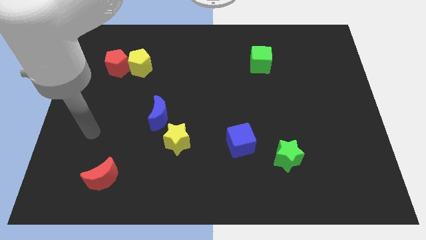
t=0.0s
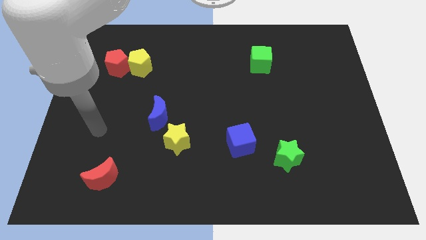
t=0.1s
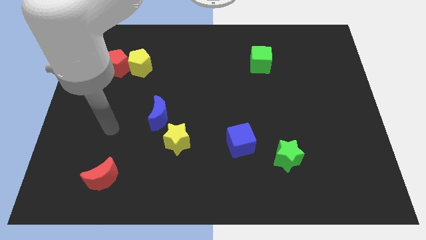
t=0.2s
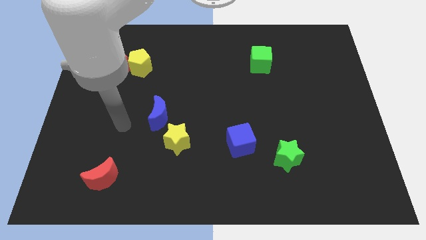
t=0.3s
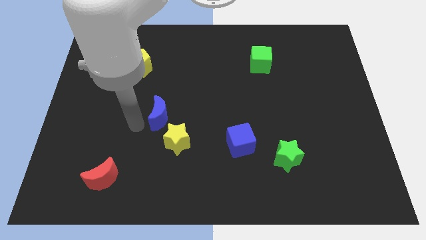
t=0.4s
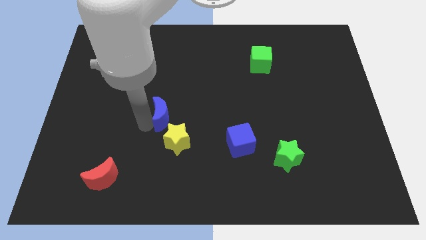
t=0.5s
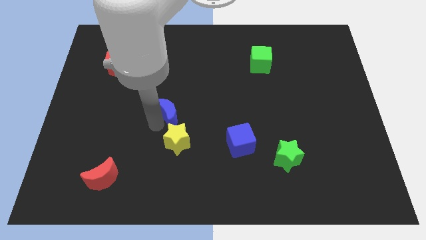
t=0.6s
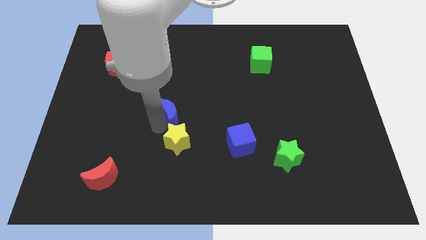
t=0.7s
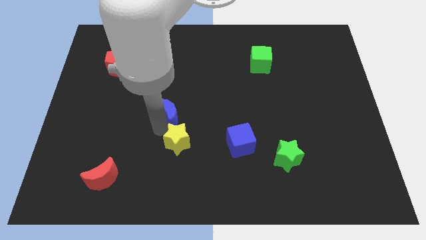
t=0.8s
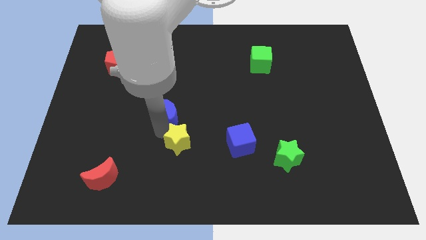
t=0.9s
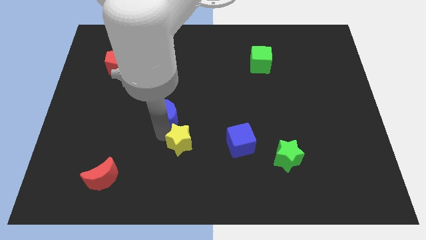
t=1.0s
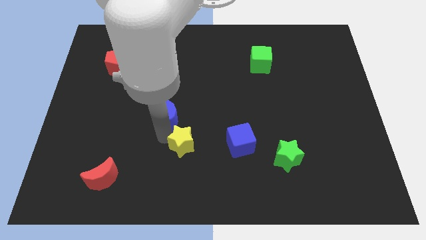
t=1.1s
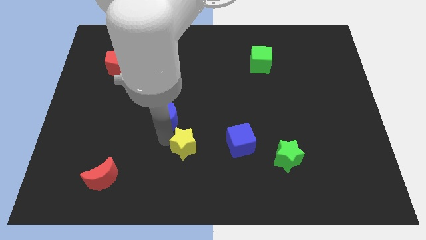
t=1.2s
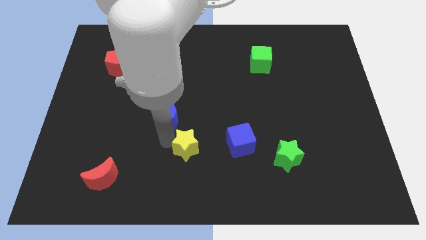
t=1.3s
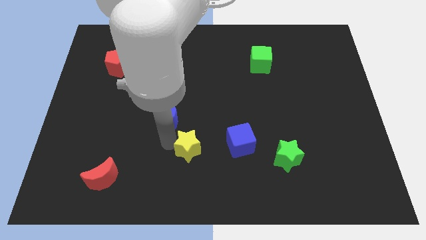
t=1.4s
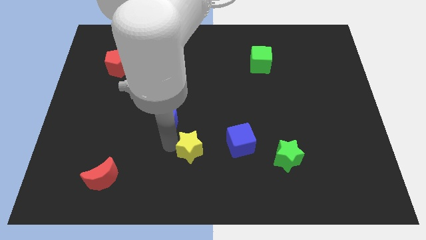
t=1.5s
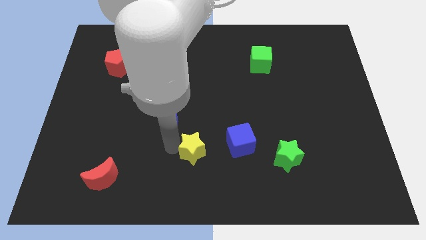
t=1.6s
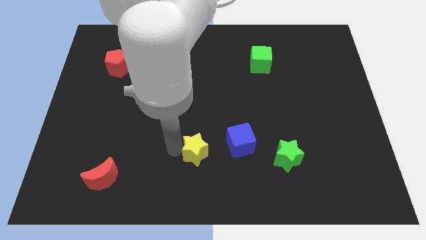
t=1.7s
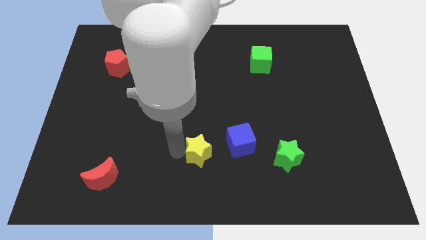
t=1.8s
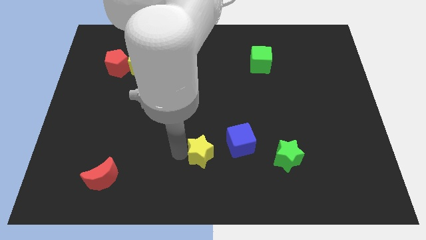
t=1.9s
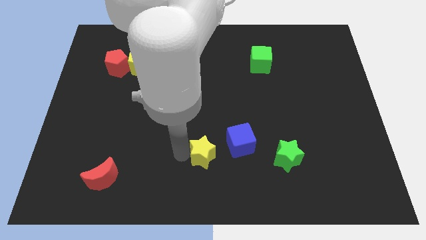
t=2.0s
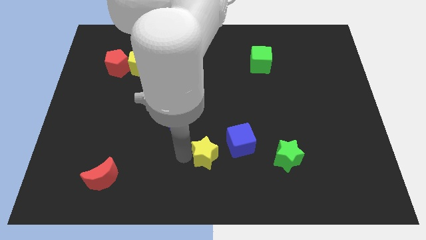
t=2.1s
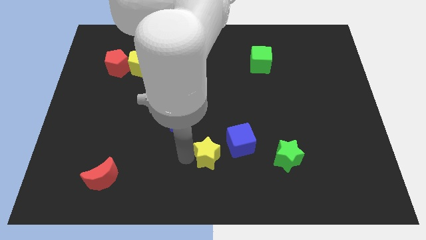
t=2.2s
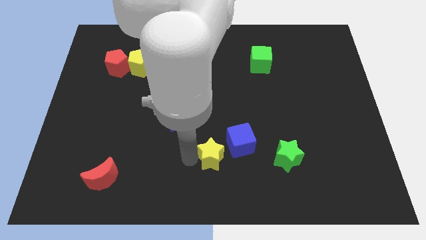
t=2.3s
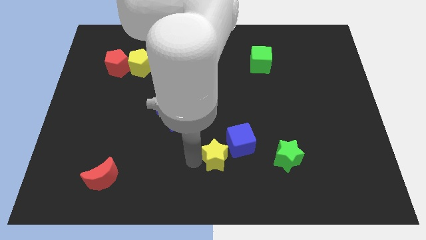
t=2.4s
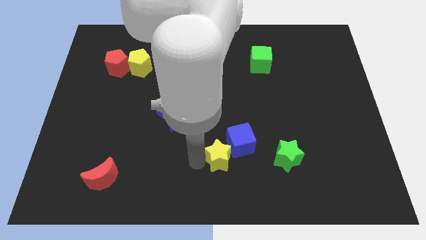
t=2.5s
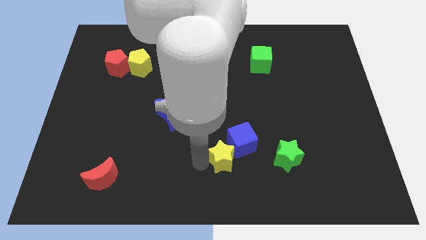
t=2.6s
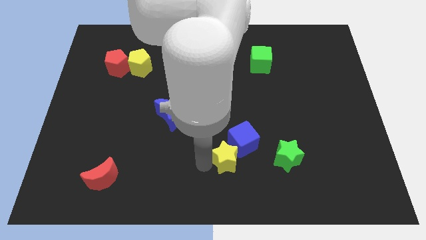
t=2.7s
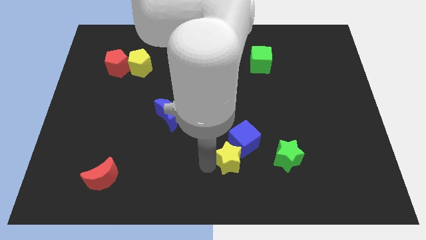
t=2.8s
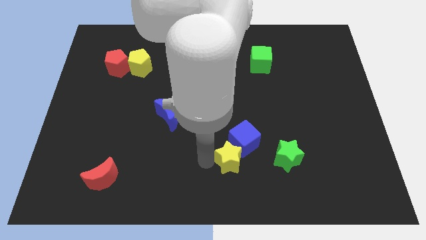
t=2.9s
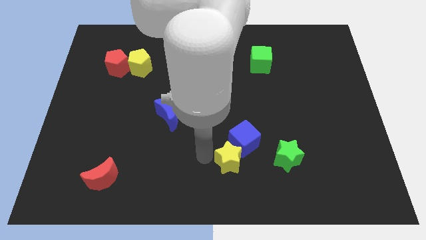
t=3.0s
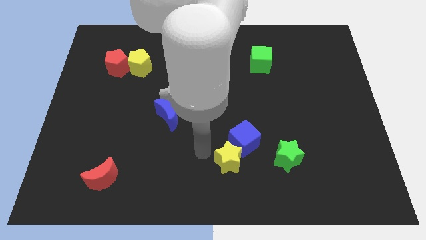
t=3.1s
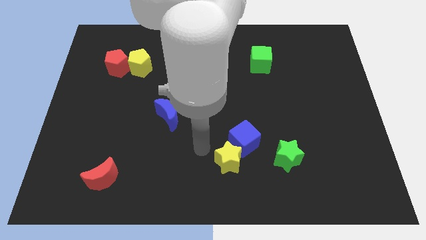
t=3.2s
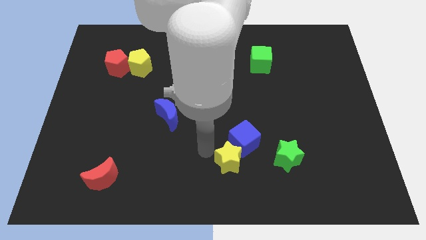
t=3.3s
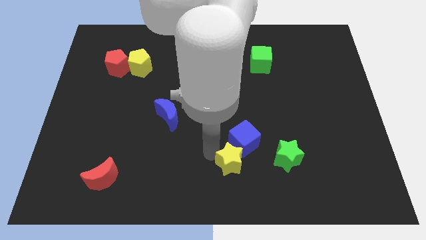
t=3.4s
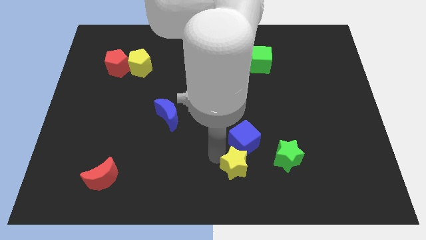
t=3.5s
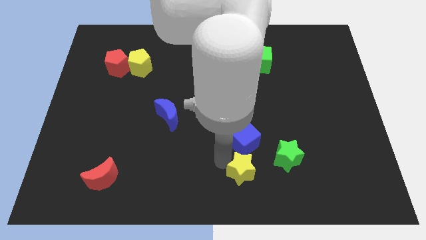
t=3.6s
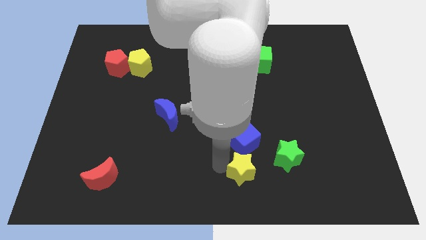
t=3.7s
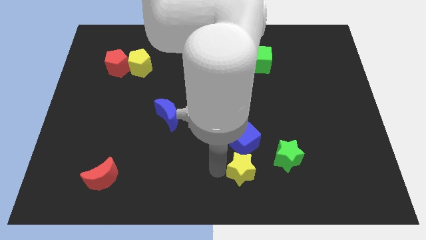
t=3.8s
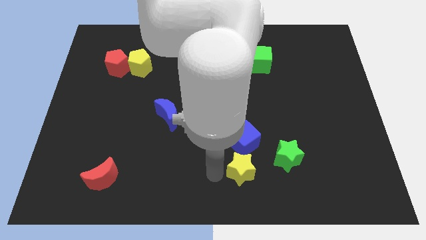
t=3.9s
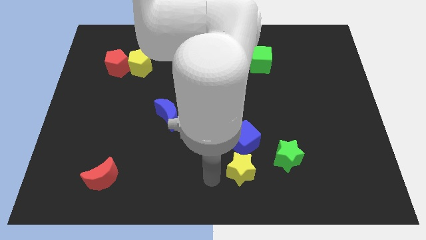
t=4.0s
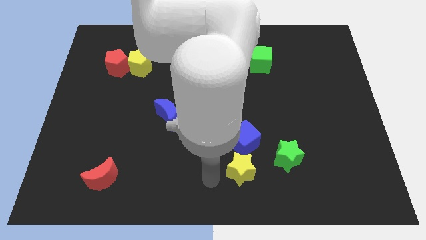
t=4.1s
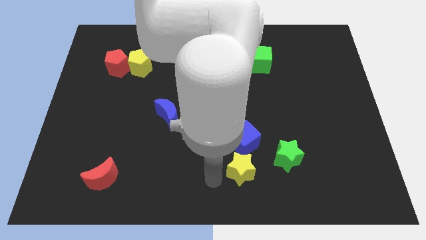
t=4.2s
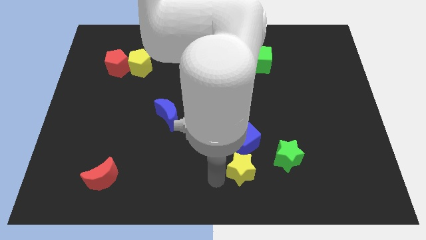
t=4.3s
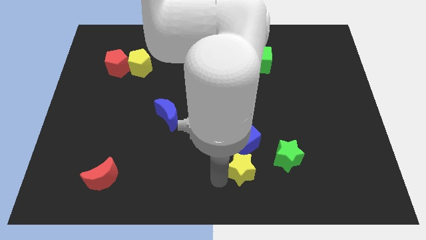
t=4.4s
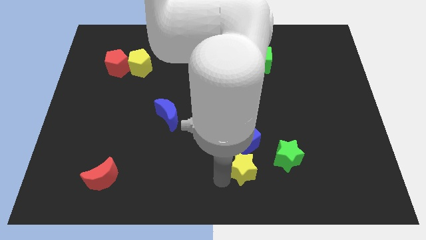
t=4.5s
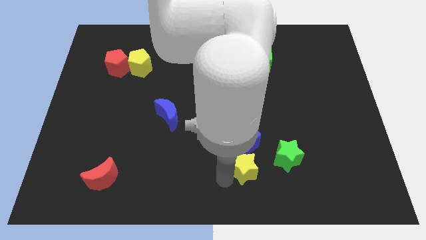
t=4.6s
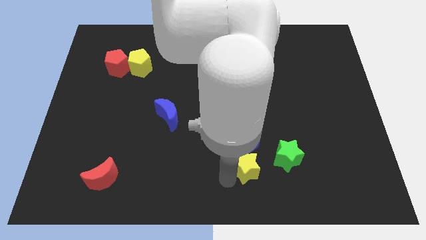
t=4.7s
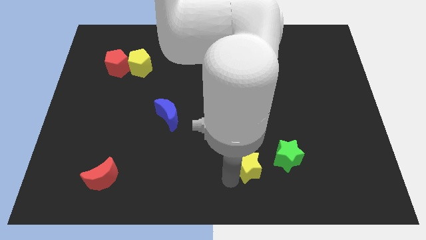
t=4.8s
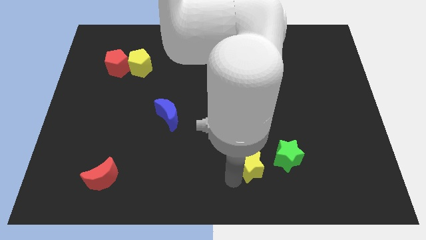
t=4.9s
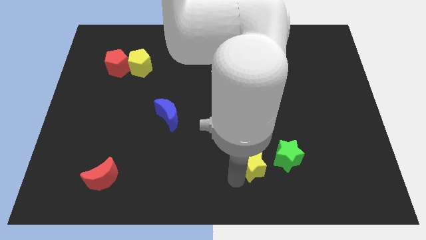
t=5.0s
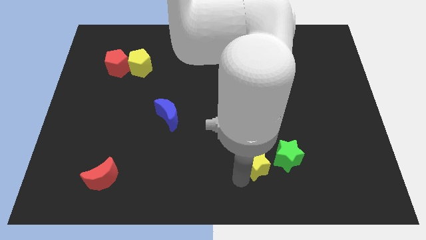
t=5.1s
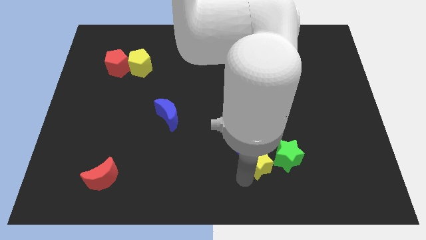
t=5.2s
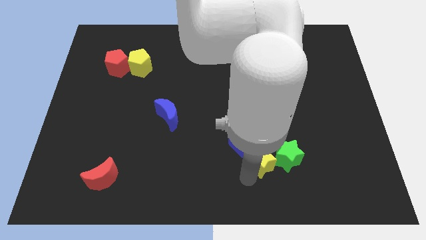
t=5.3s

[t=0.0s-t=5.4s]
put the yellow star next to the green star

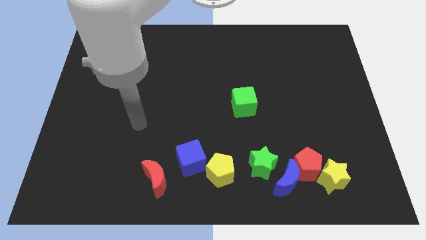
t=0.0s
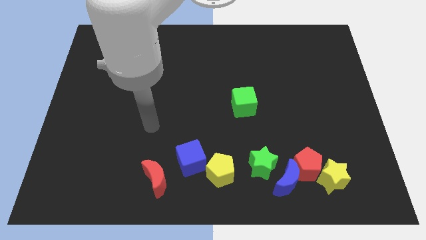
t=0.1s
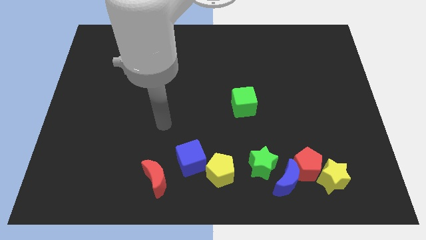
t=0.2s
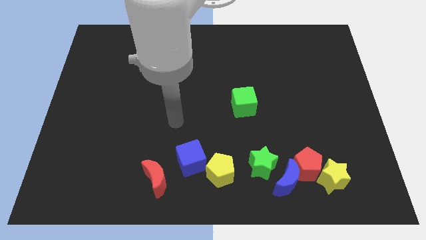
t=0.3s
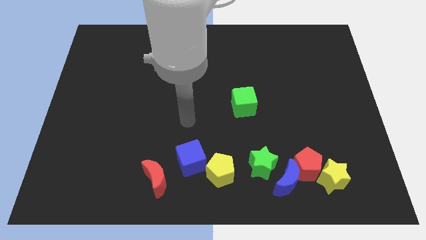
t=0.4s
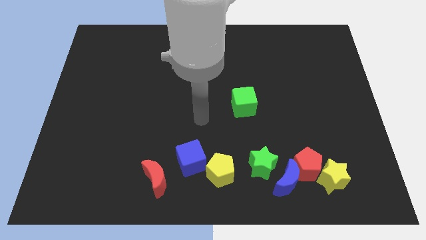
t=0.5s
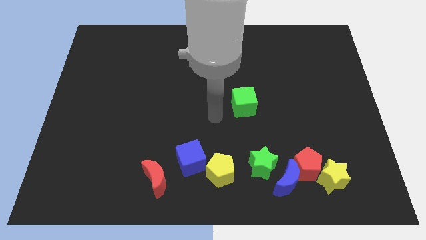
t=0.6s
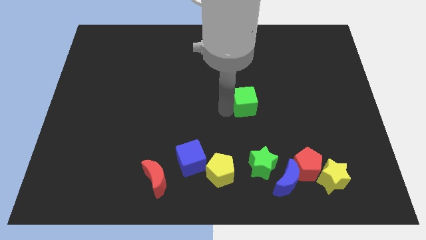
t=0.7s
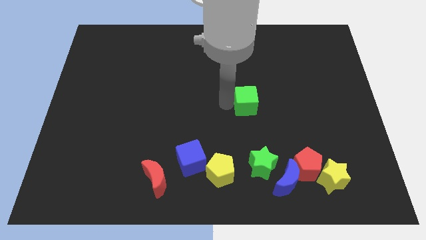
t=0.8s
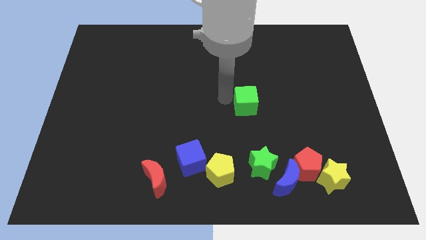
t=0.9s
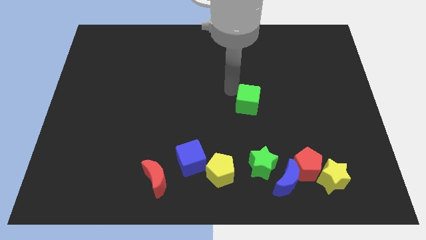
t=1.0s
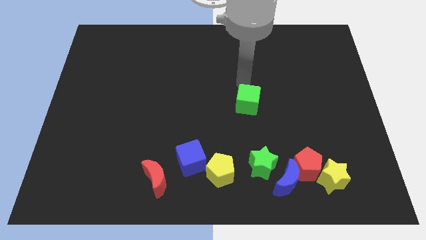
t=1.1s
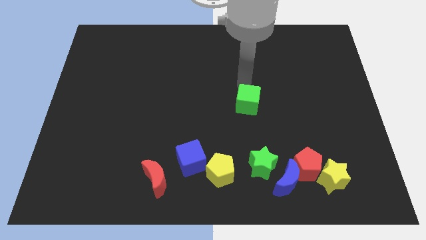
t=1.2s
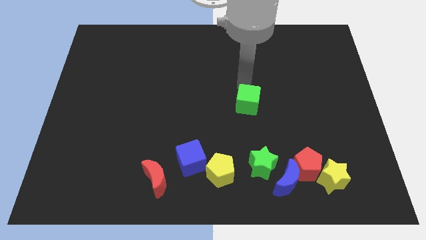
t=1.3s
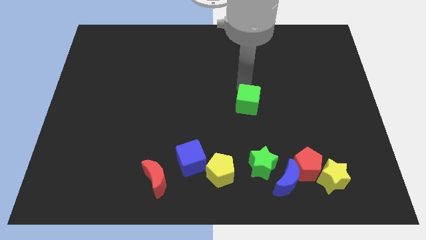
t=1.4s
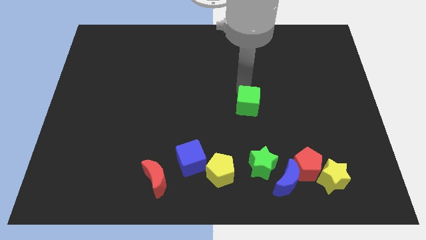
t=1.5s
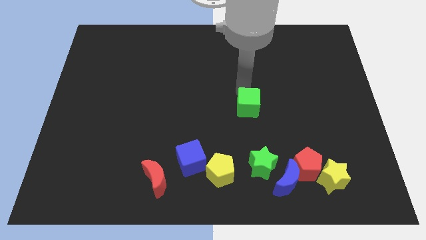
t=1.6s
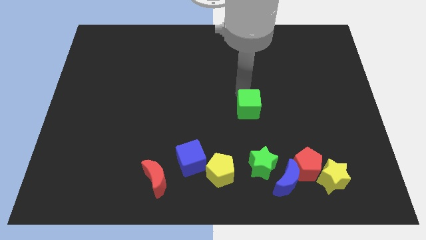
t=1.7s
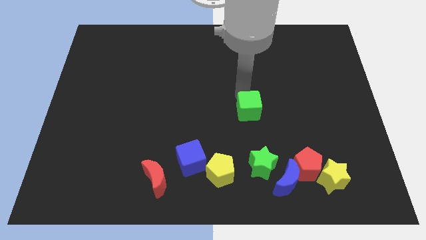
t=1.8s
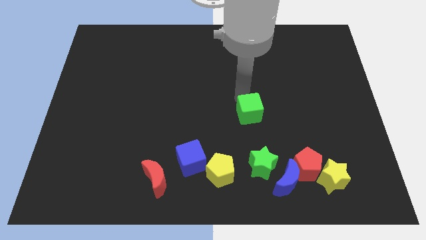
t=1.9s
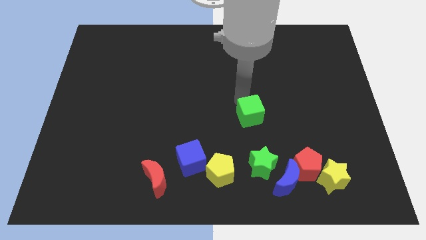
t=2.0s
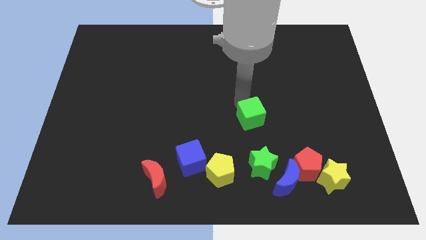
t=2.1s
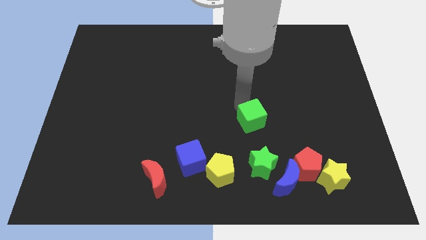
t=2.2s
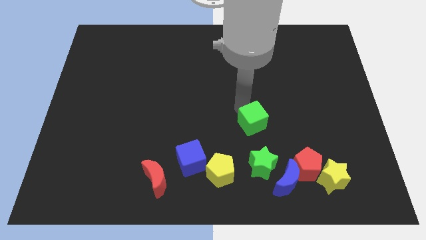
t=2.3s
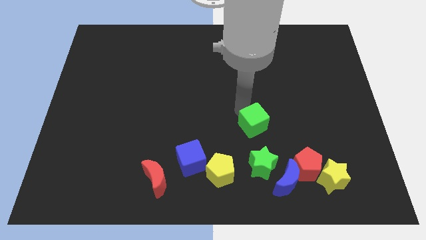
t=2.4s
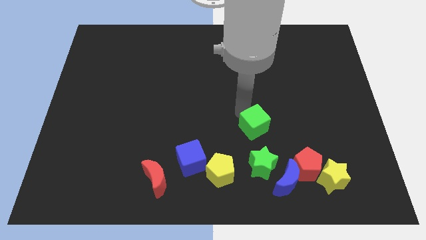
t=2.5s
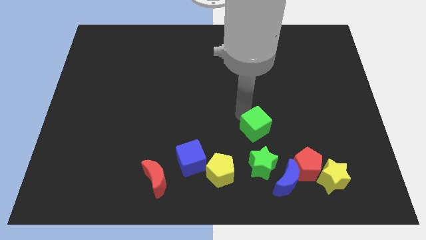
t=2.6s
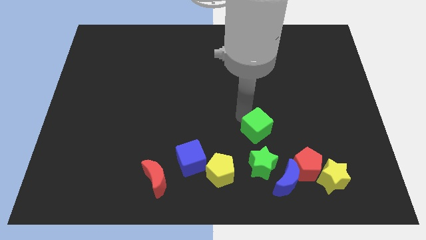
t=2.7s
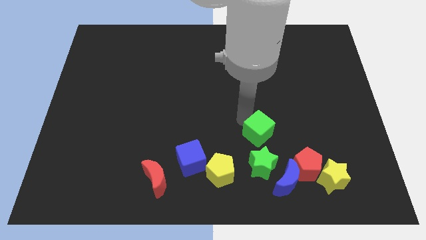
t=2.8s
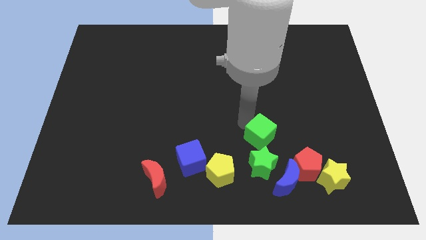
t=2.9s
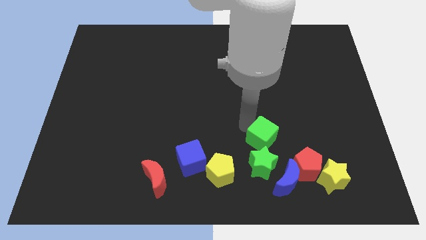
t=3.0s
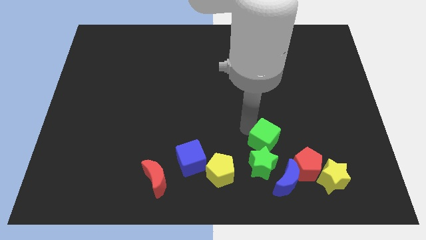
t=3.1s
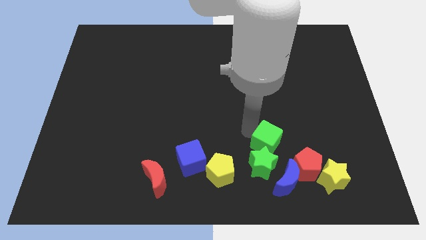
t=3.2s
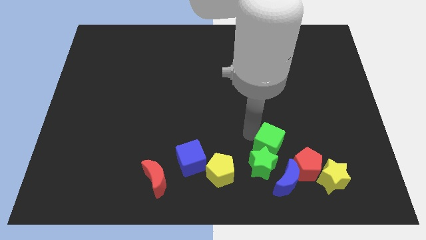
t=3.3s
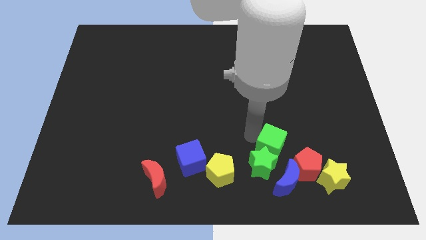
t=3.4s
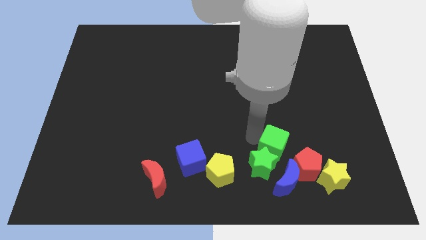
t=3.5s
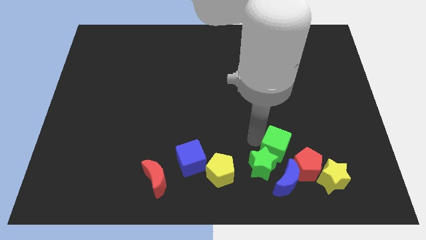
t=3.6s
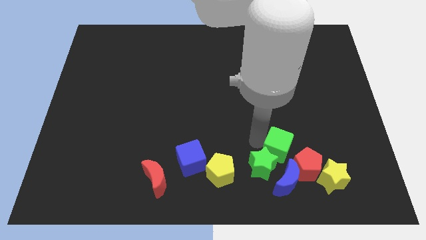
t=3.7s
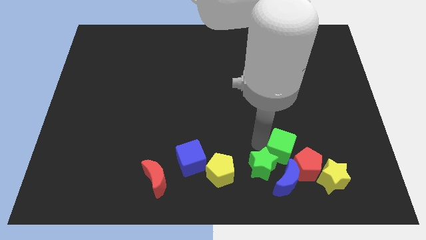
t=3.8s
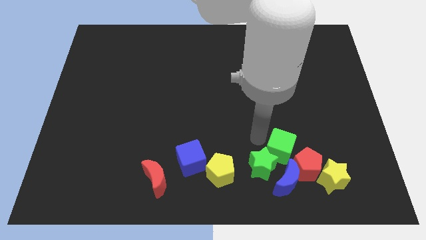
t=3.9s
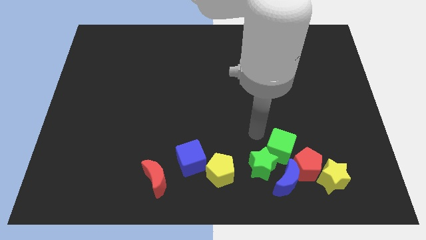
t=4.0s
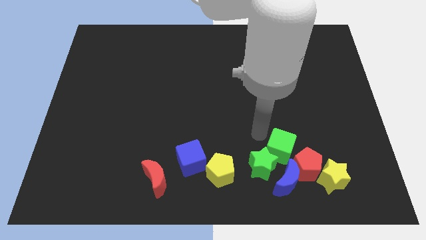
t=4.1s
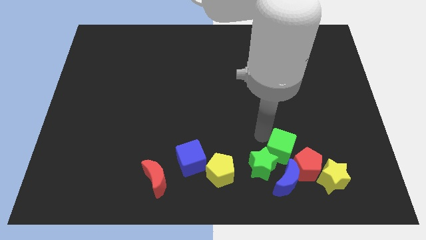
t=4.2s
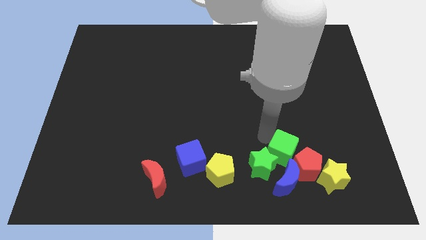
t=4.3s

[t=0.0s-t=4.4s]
put the green cube close to the red pentagon
